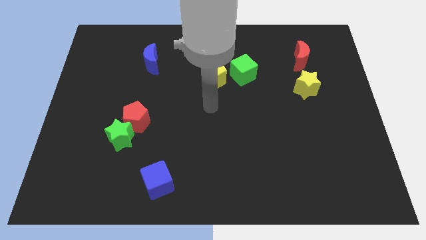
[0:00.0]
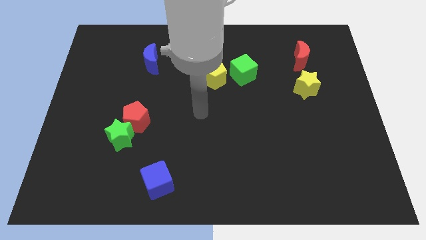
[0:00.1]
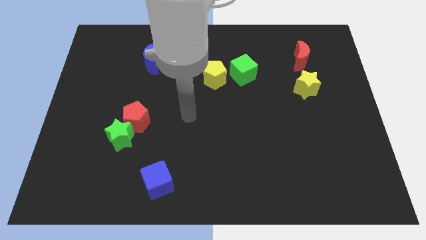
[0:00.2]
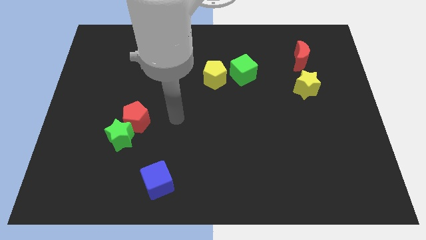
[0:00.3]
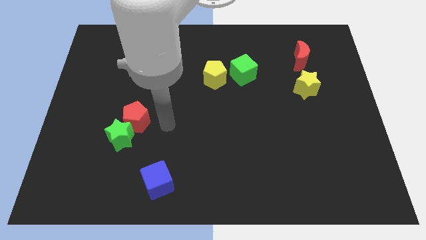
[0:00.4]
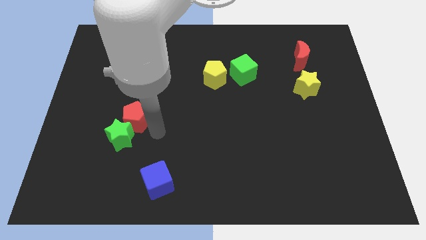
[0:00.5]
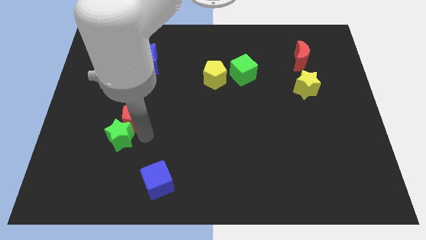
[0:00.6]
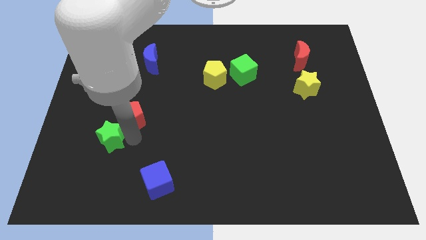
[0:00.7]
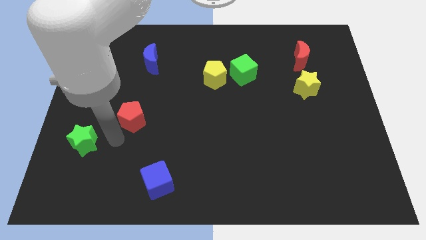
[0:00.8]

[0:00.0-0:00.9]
move the red pentagon away from the green star

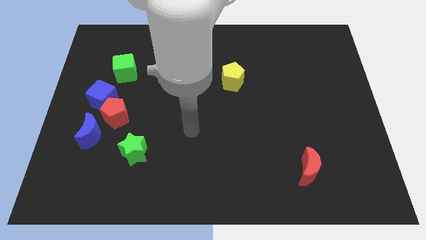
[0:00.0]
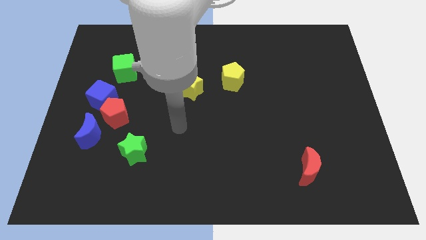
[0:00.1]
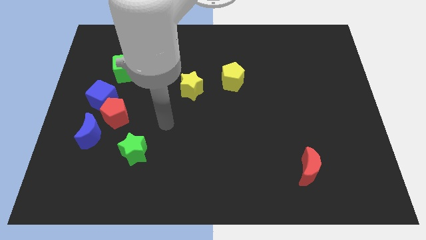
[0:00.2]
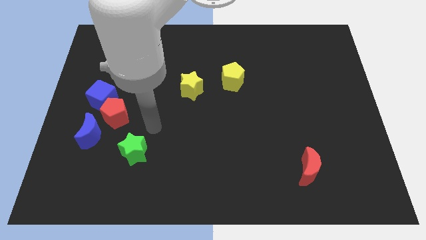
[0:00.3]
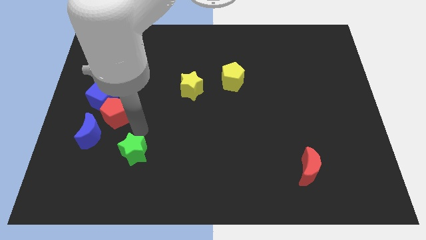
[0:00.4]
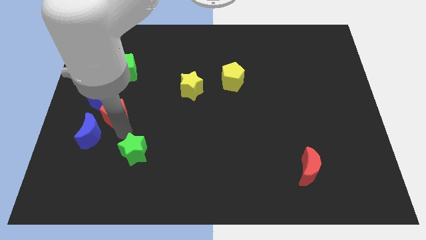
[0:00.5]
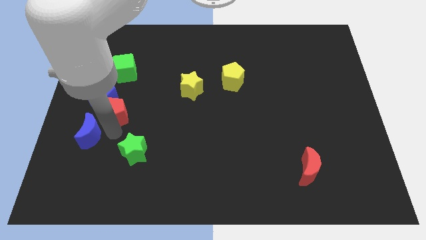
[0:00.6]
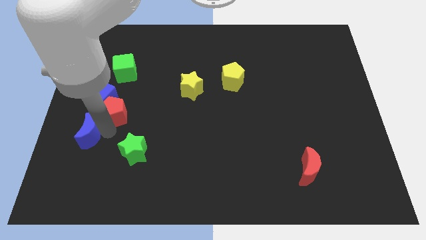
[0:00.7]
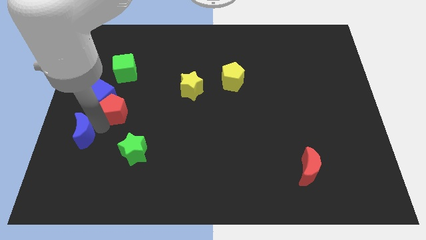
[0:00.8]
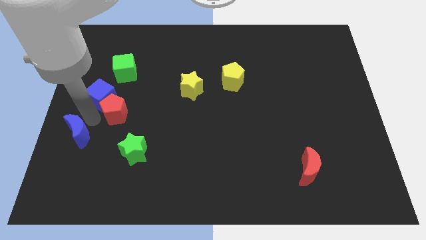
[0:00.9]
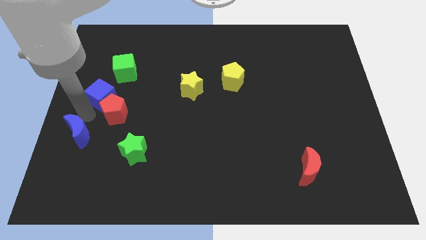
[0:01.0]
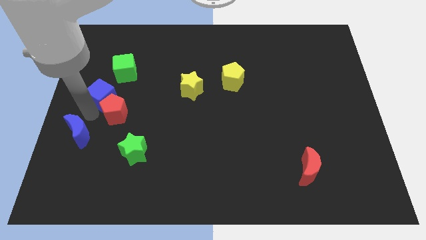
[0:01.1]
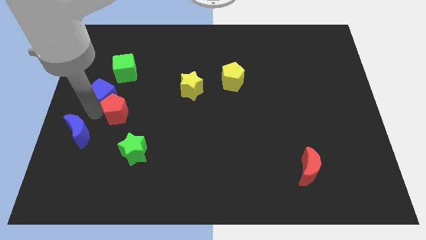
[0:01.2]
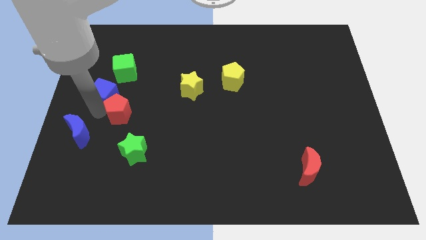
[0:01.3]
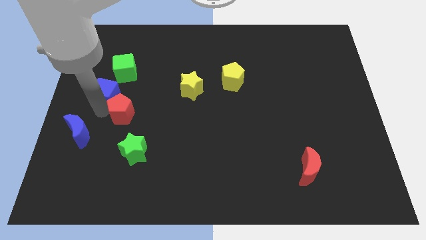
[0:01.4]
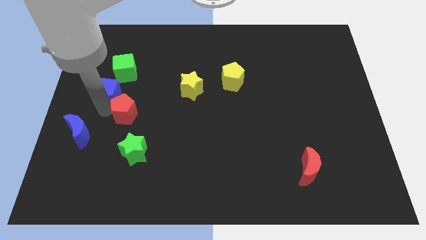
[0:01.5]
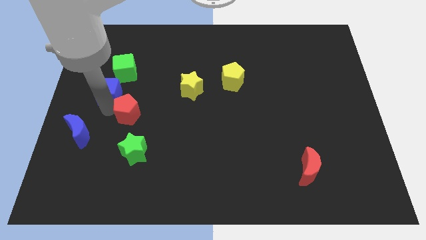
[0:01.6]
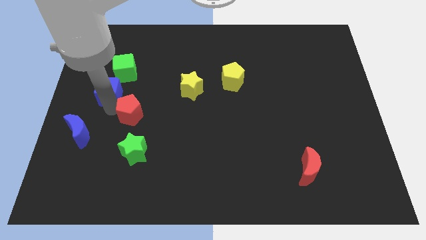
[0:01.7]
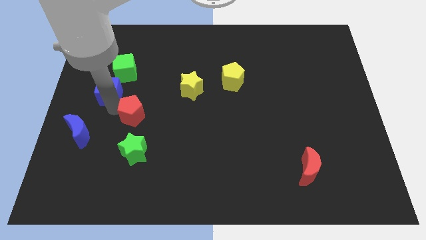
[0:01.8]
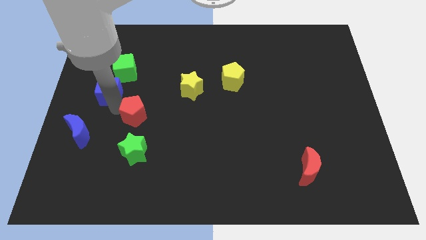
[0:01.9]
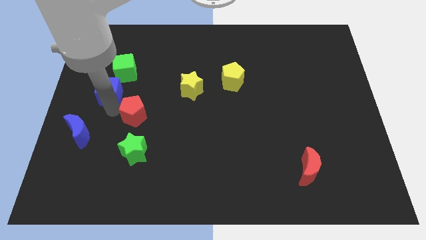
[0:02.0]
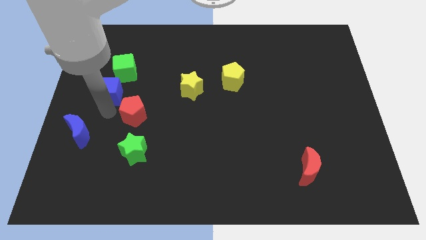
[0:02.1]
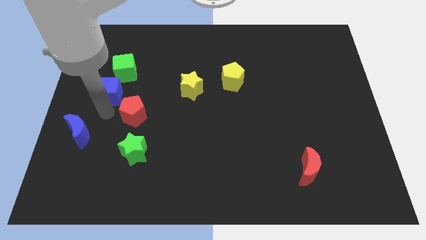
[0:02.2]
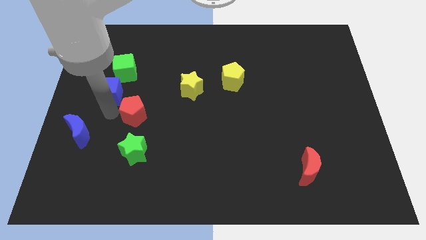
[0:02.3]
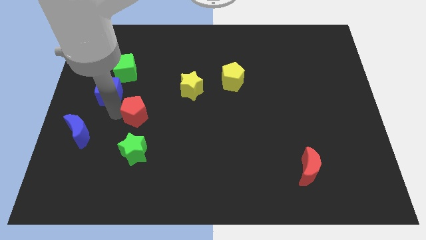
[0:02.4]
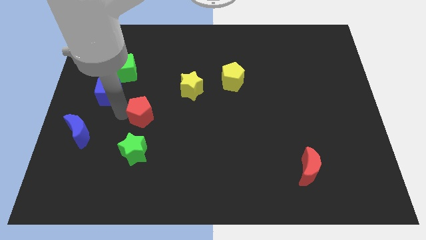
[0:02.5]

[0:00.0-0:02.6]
move the red pentagon away from the blue cube and blue moon

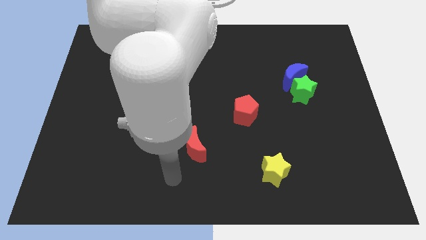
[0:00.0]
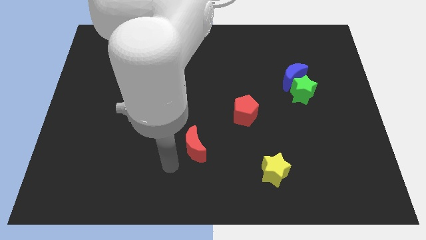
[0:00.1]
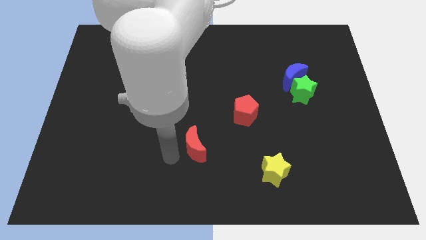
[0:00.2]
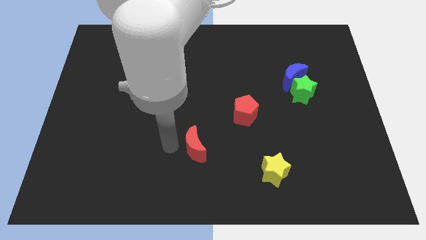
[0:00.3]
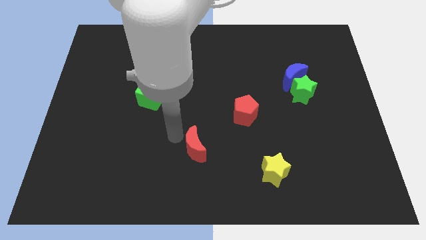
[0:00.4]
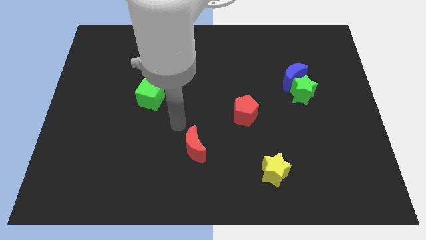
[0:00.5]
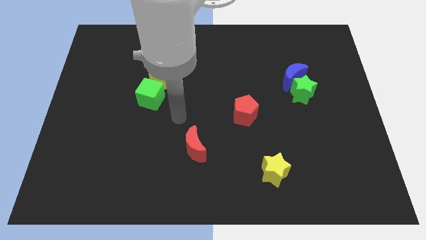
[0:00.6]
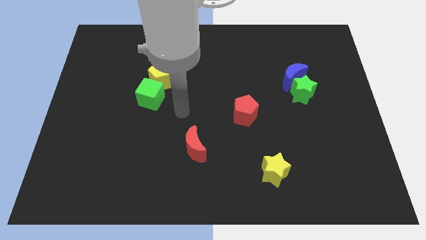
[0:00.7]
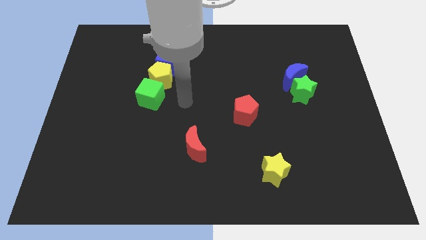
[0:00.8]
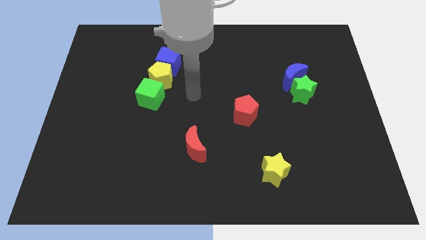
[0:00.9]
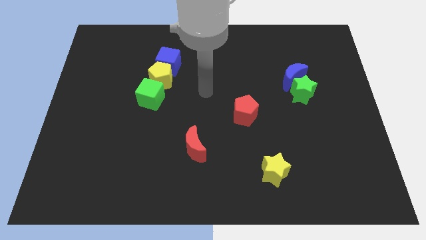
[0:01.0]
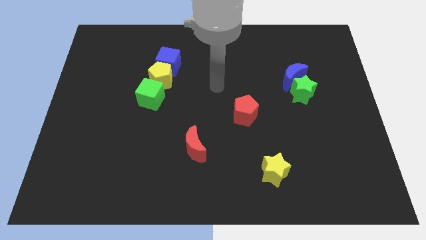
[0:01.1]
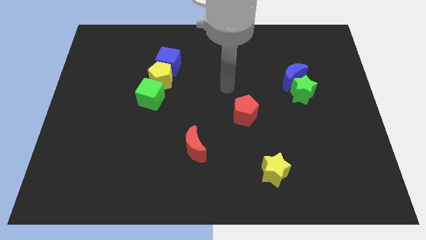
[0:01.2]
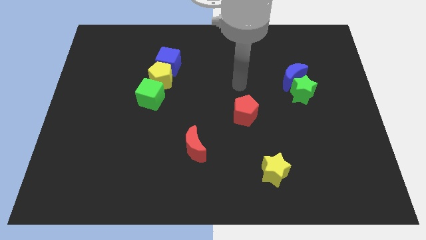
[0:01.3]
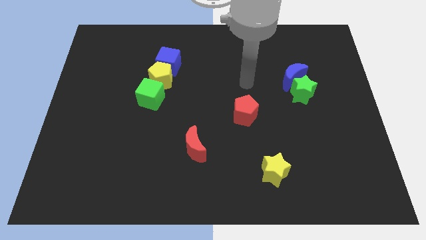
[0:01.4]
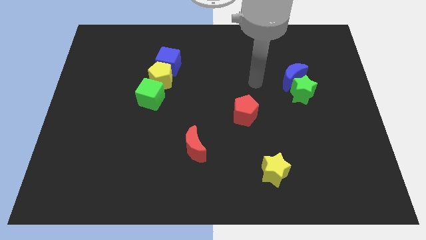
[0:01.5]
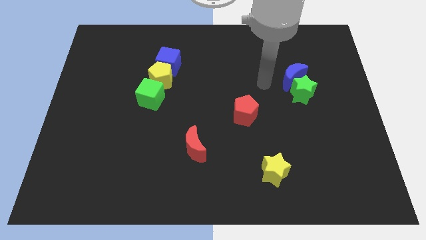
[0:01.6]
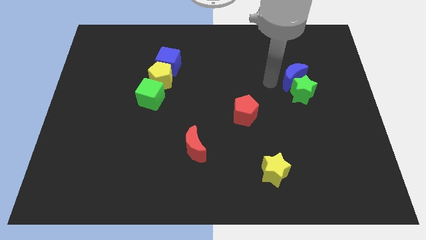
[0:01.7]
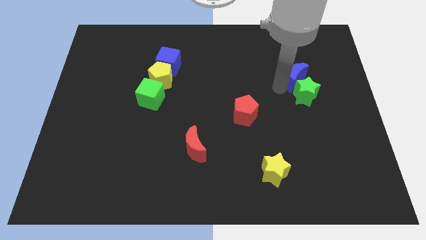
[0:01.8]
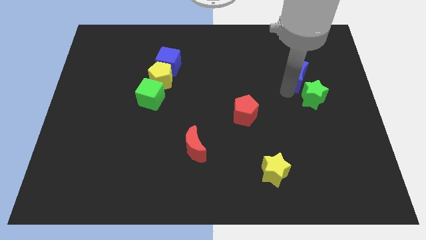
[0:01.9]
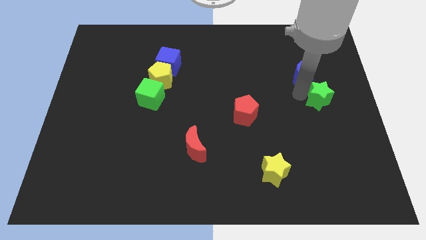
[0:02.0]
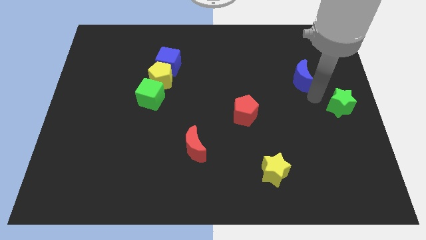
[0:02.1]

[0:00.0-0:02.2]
move the blue moon away from the green star

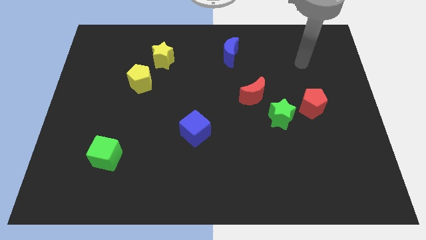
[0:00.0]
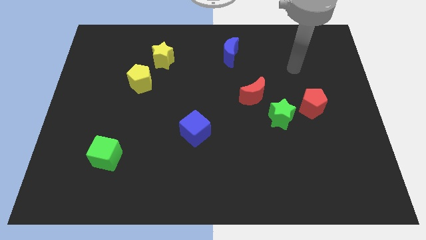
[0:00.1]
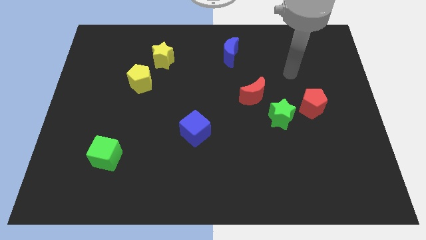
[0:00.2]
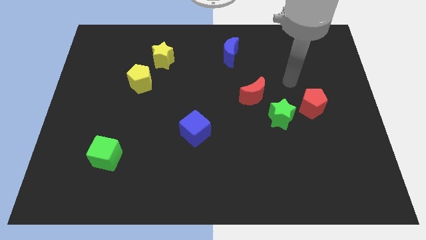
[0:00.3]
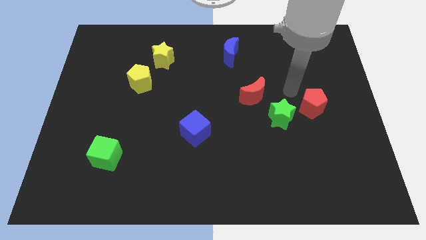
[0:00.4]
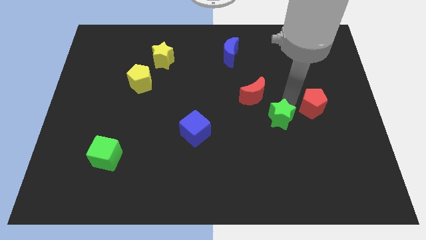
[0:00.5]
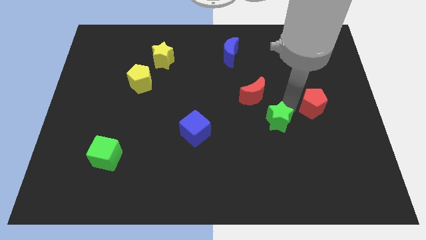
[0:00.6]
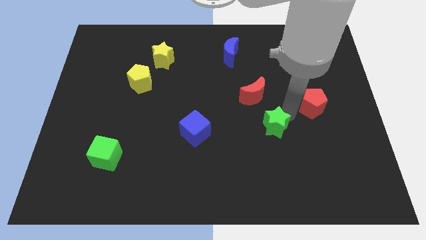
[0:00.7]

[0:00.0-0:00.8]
separate the red pentagon from the green star

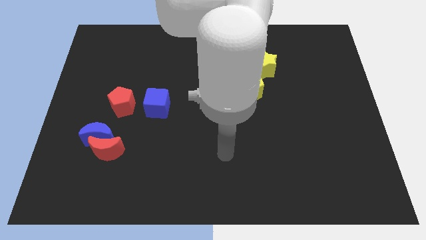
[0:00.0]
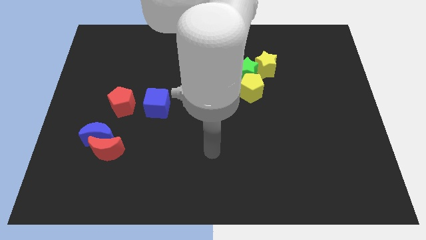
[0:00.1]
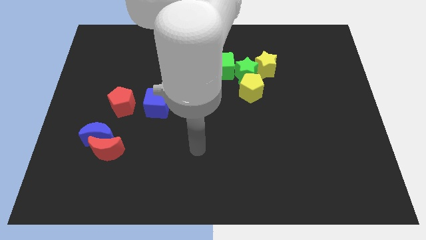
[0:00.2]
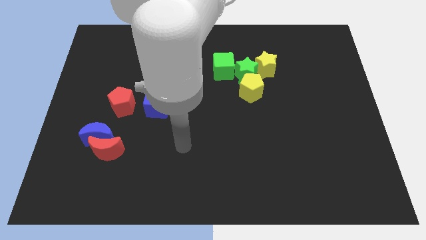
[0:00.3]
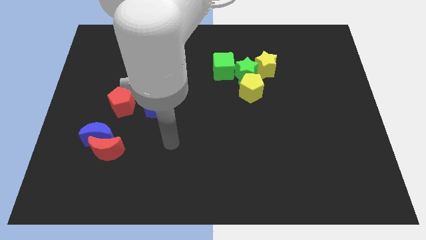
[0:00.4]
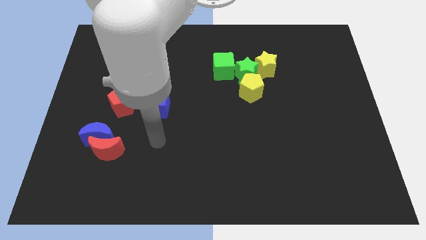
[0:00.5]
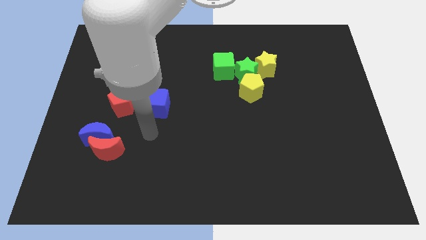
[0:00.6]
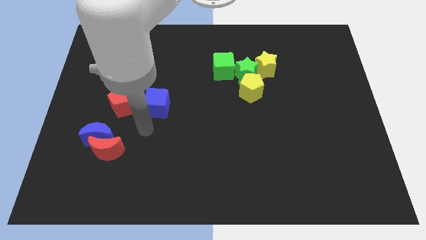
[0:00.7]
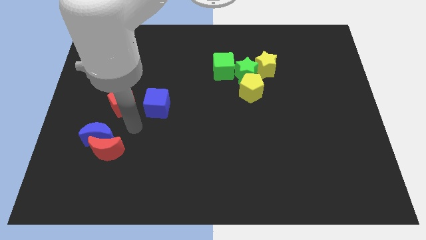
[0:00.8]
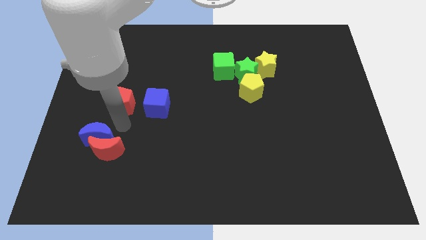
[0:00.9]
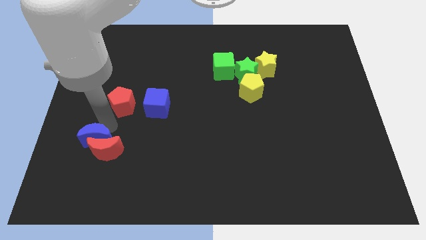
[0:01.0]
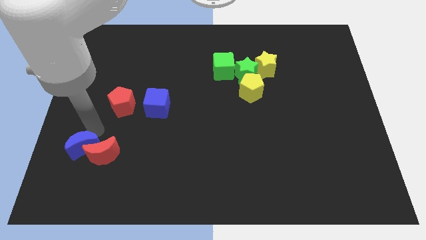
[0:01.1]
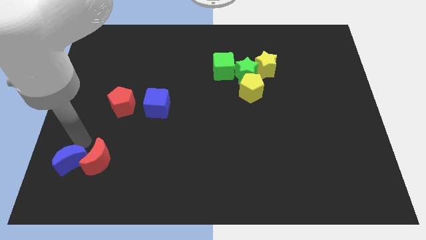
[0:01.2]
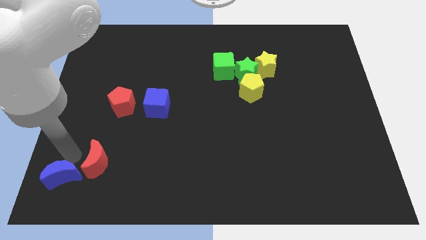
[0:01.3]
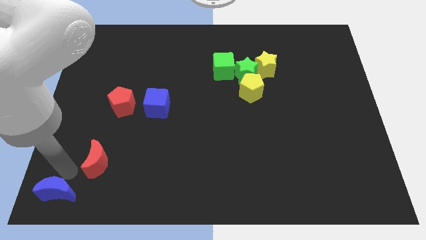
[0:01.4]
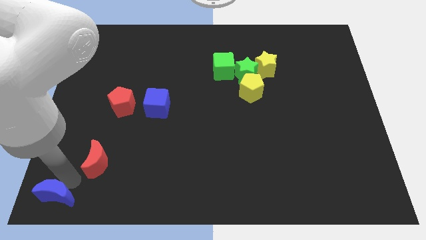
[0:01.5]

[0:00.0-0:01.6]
move the red moon away from the blue moon

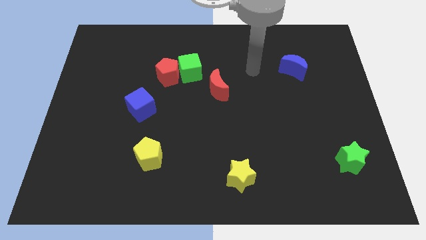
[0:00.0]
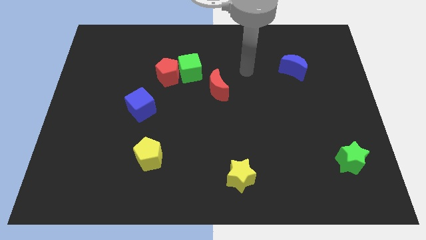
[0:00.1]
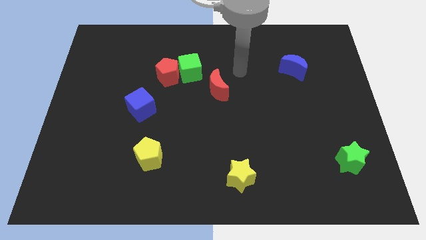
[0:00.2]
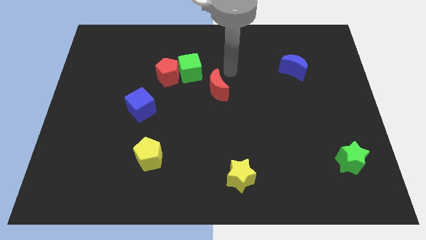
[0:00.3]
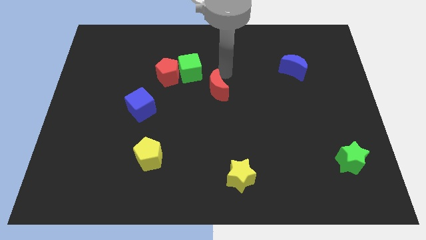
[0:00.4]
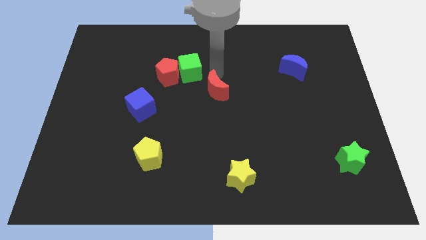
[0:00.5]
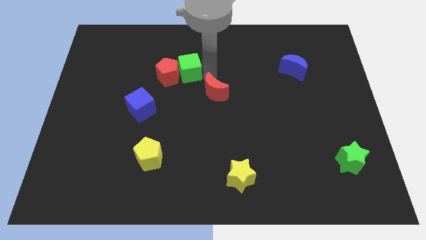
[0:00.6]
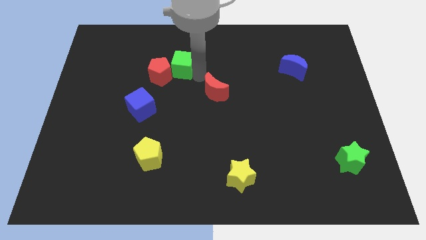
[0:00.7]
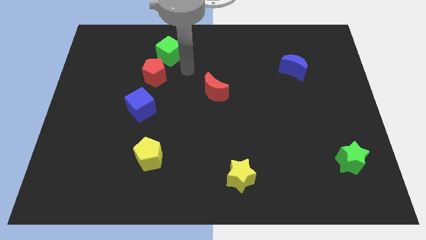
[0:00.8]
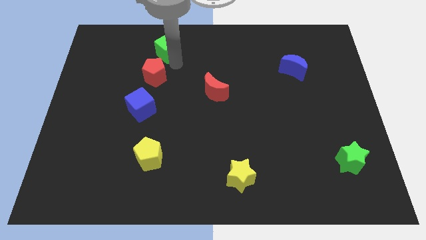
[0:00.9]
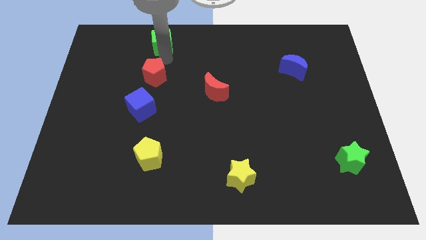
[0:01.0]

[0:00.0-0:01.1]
separate the red pentagon from the green cube
